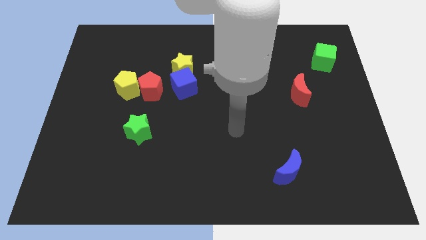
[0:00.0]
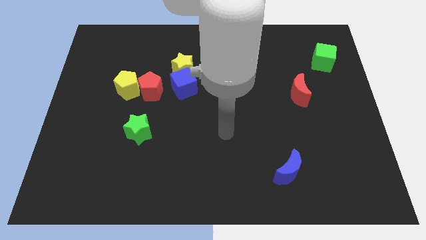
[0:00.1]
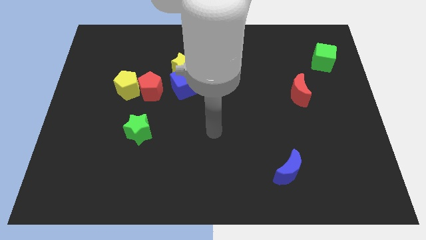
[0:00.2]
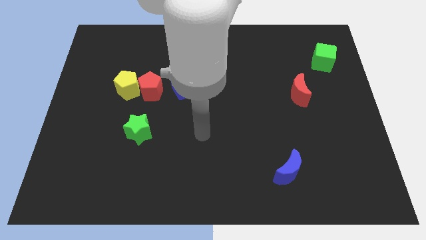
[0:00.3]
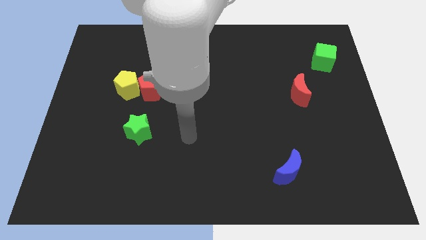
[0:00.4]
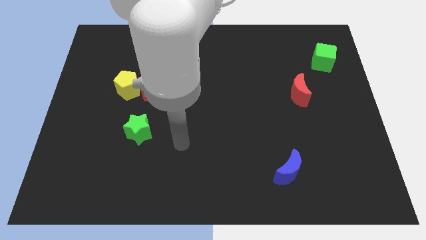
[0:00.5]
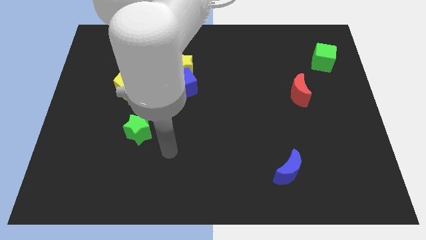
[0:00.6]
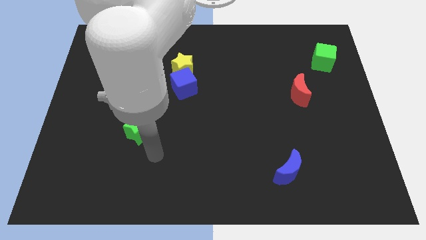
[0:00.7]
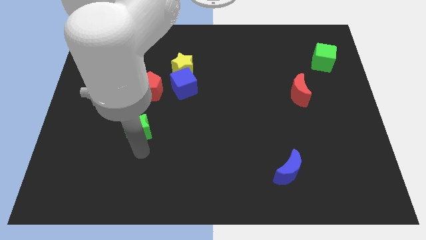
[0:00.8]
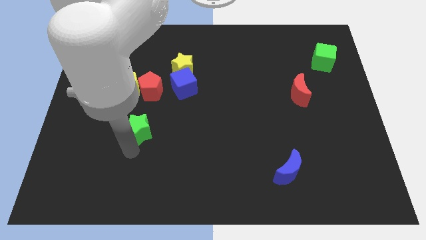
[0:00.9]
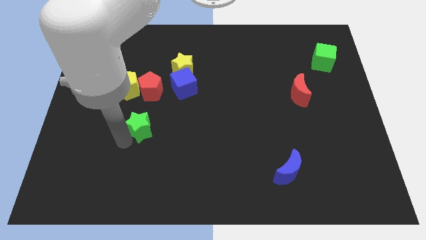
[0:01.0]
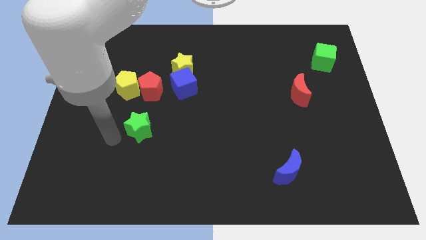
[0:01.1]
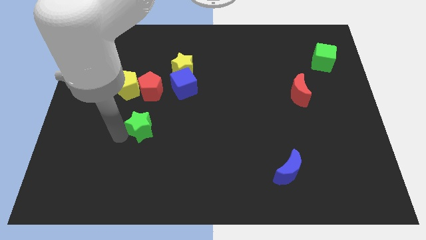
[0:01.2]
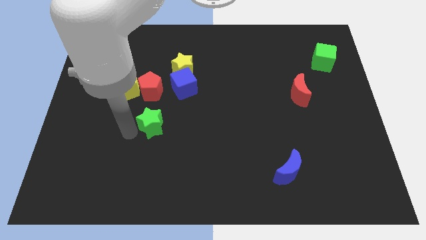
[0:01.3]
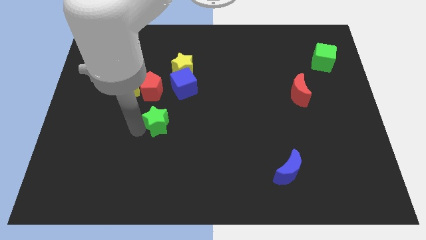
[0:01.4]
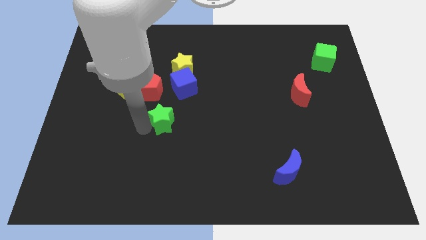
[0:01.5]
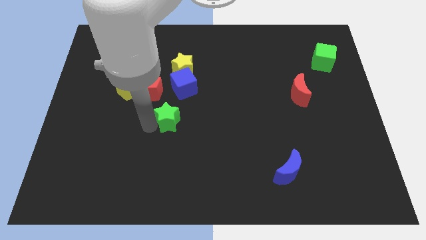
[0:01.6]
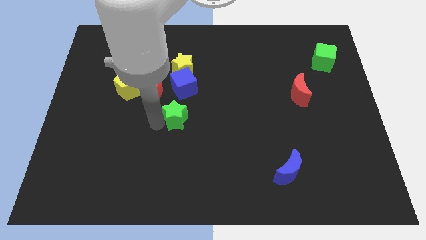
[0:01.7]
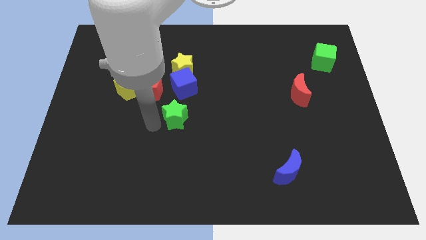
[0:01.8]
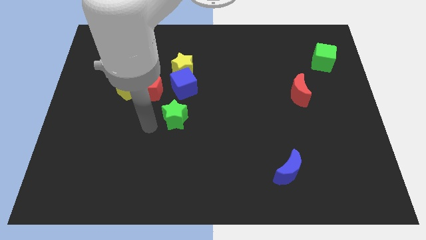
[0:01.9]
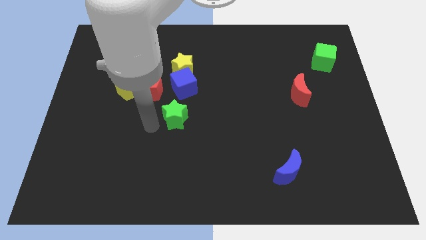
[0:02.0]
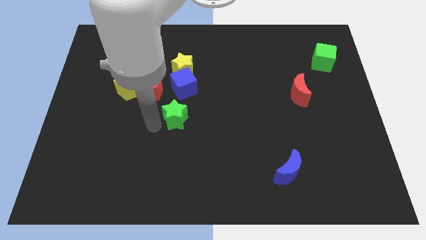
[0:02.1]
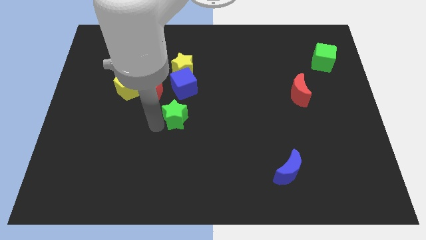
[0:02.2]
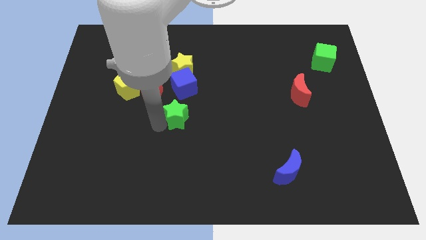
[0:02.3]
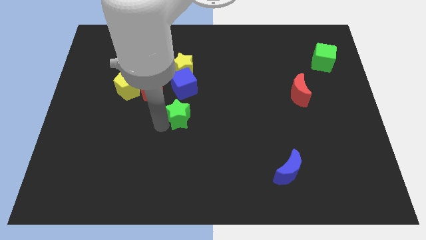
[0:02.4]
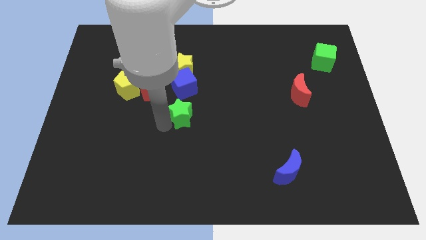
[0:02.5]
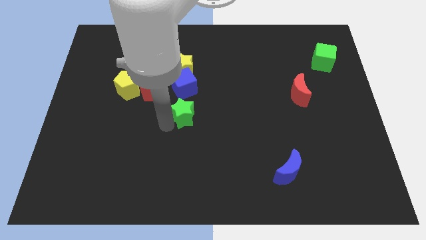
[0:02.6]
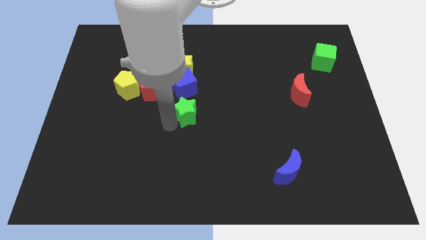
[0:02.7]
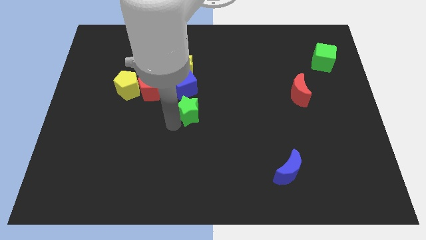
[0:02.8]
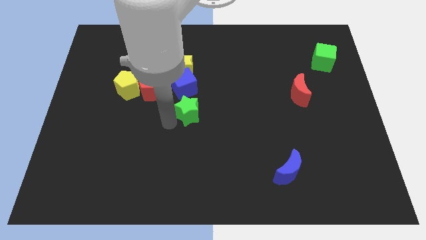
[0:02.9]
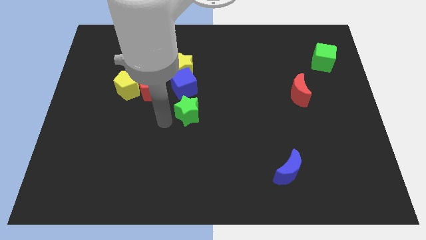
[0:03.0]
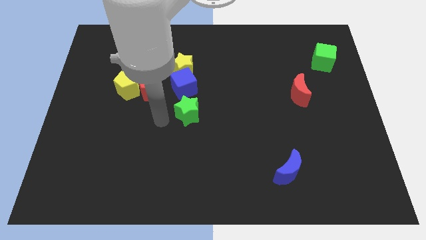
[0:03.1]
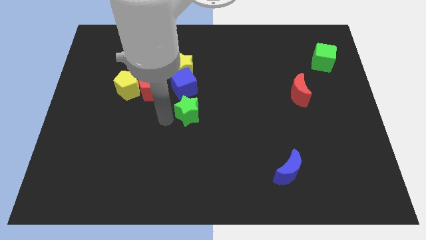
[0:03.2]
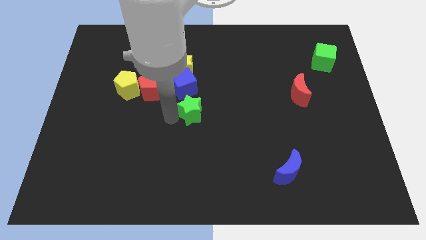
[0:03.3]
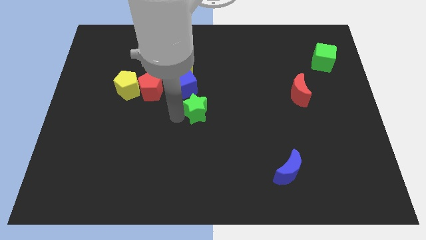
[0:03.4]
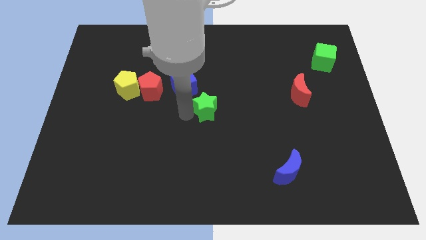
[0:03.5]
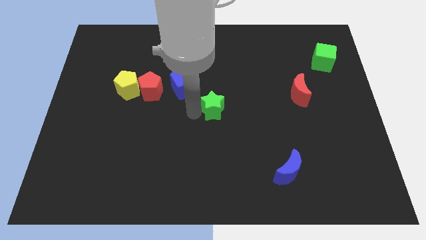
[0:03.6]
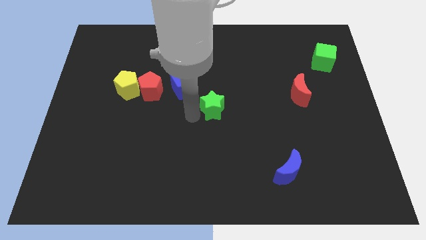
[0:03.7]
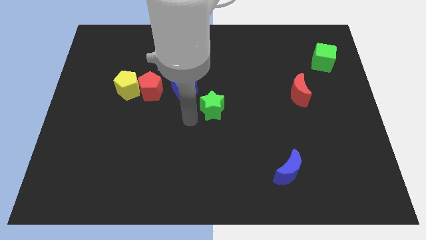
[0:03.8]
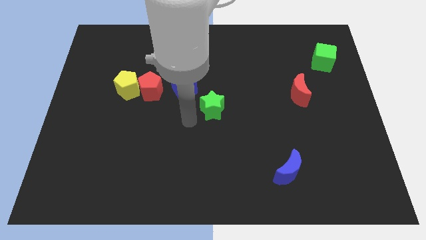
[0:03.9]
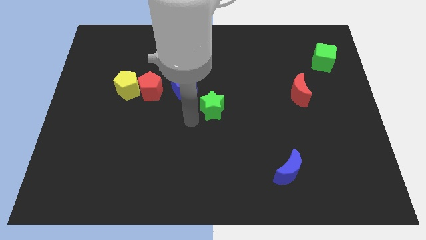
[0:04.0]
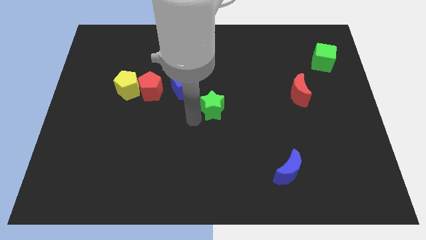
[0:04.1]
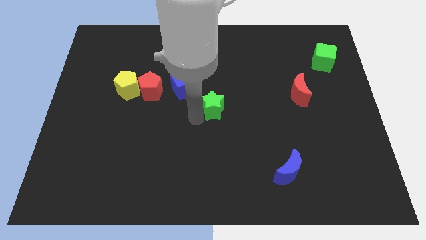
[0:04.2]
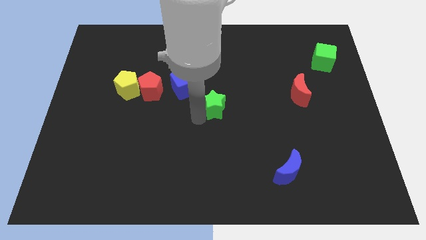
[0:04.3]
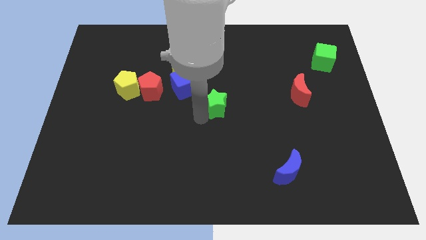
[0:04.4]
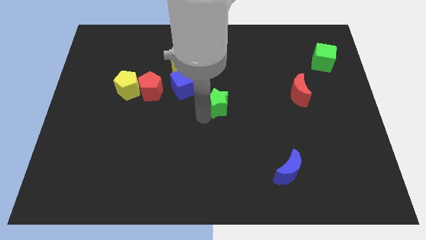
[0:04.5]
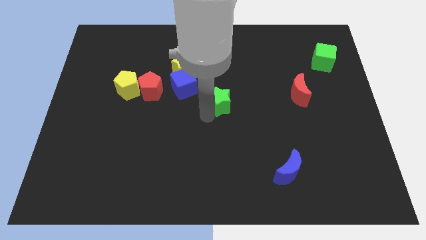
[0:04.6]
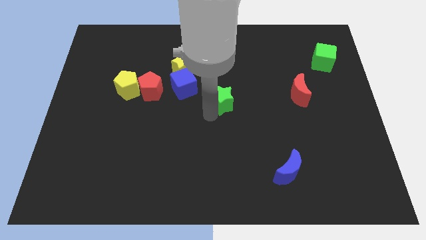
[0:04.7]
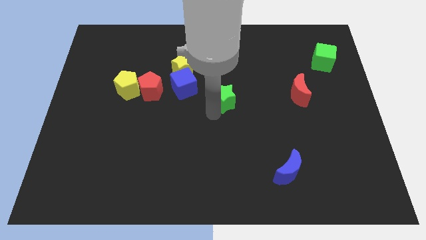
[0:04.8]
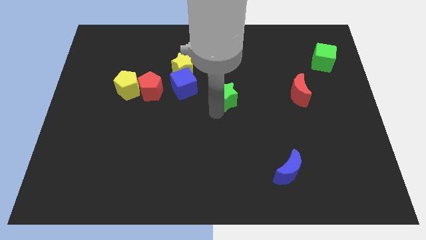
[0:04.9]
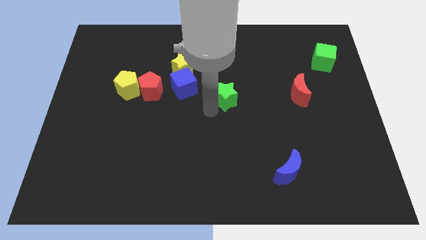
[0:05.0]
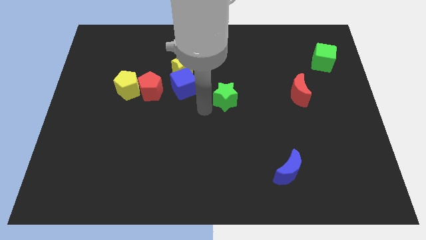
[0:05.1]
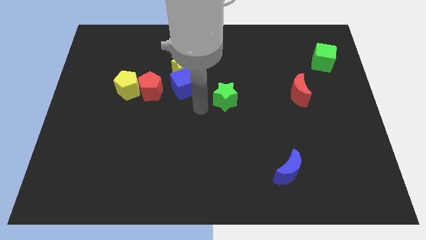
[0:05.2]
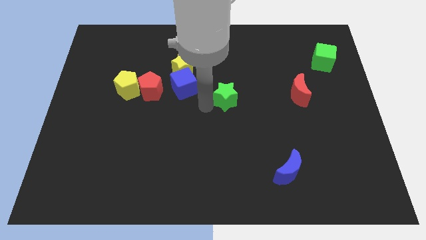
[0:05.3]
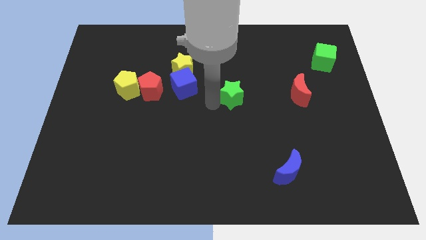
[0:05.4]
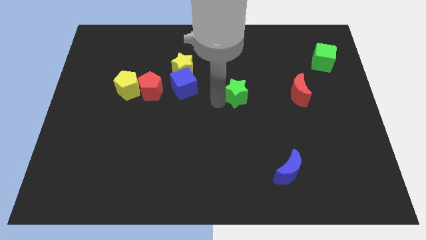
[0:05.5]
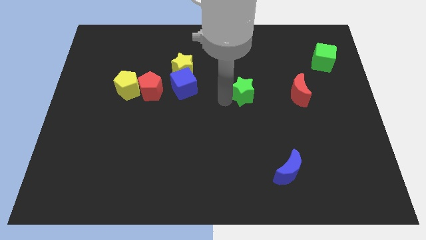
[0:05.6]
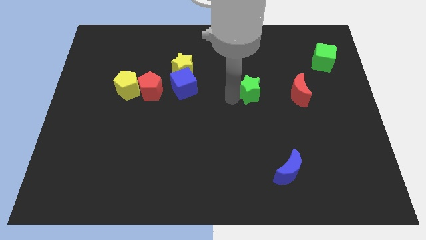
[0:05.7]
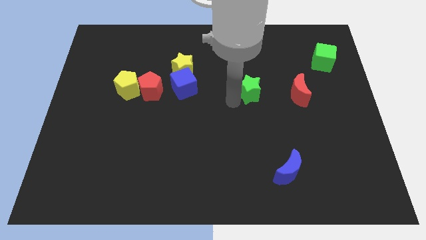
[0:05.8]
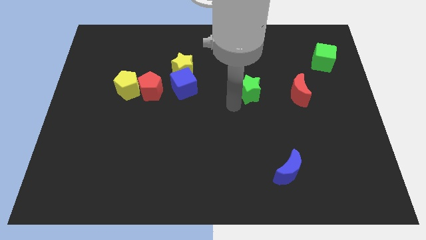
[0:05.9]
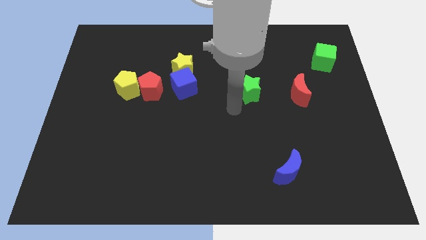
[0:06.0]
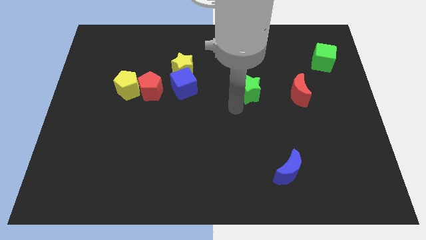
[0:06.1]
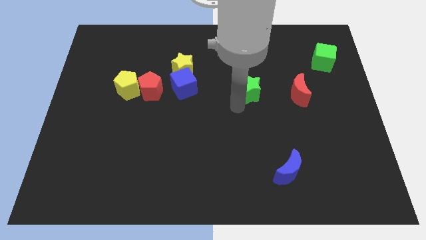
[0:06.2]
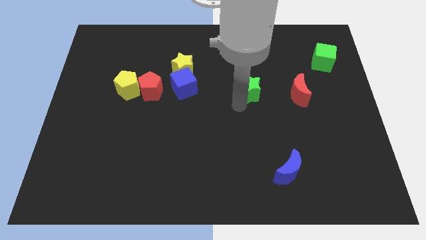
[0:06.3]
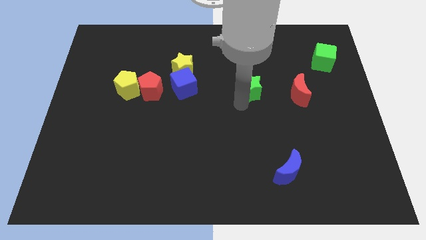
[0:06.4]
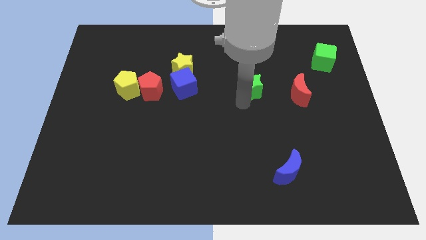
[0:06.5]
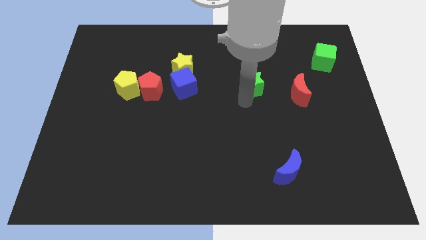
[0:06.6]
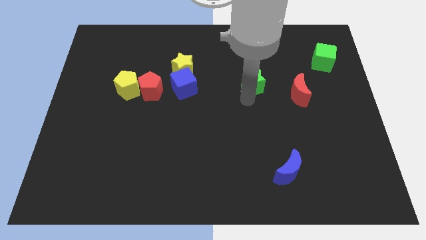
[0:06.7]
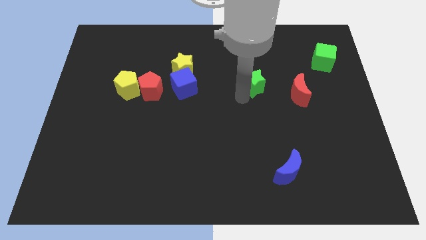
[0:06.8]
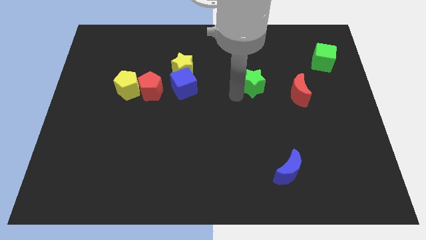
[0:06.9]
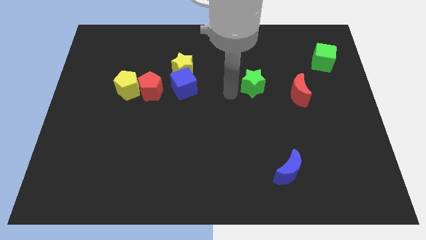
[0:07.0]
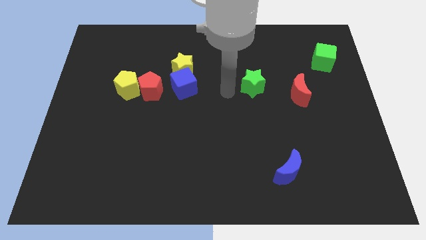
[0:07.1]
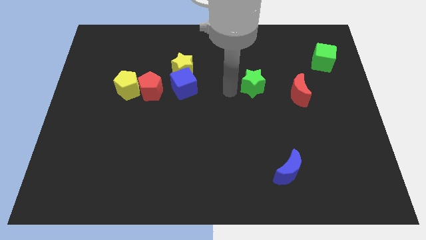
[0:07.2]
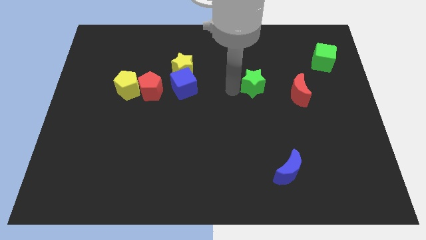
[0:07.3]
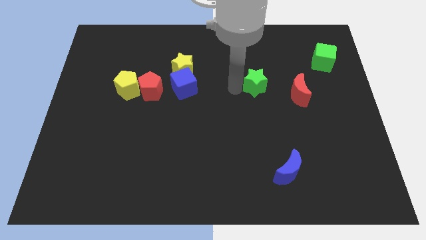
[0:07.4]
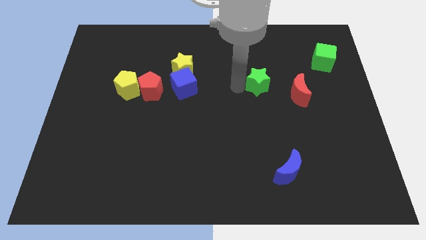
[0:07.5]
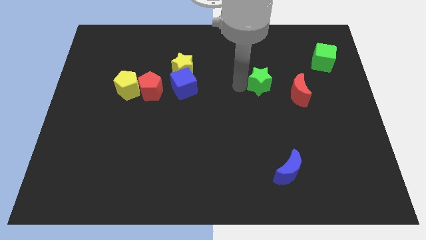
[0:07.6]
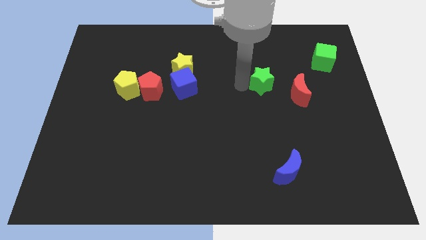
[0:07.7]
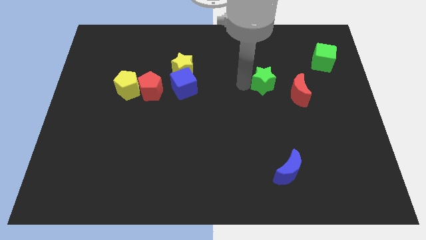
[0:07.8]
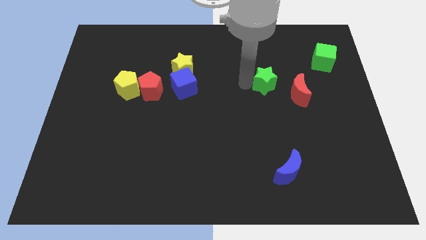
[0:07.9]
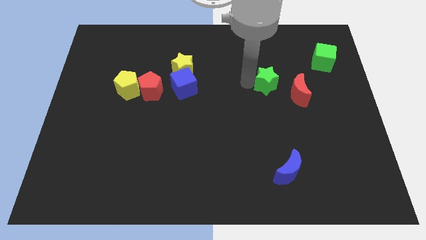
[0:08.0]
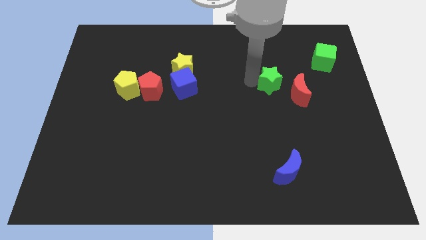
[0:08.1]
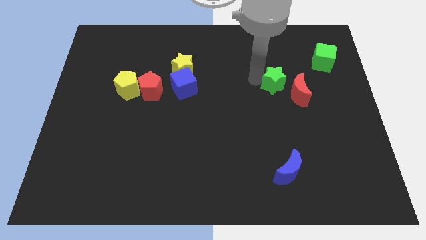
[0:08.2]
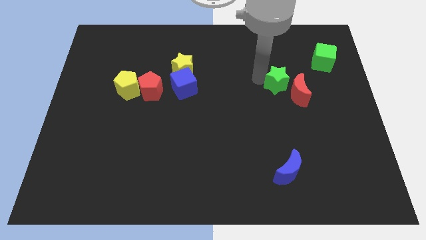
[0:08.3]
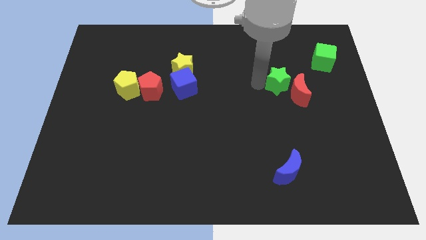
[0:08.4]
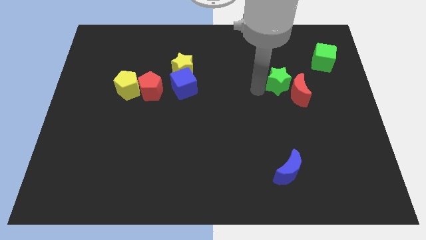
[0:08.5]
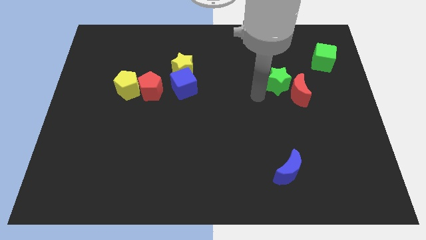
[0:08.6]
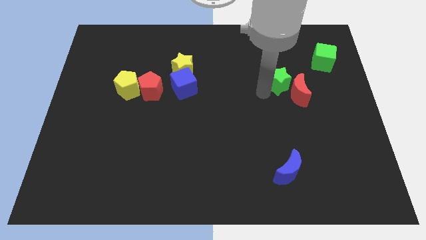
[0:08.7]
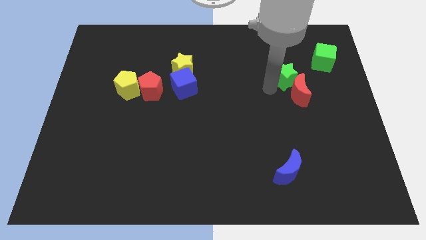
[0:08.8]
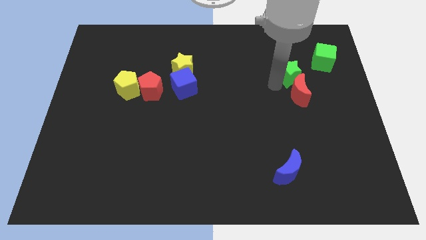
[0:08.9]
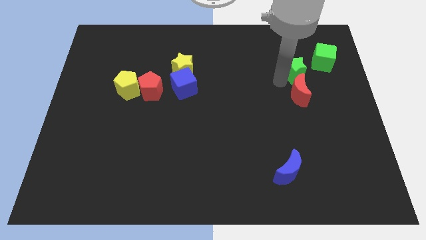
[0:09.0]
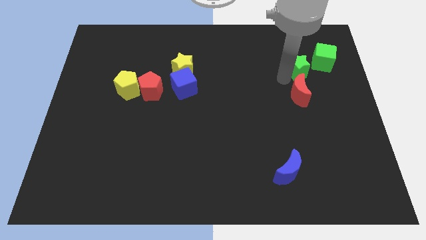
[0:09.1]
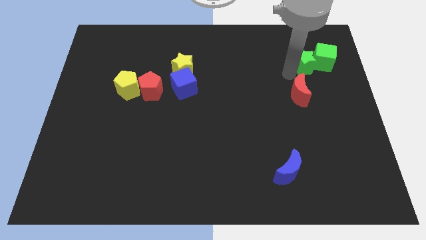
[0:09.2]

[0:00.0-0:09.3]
push the green star close to the green cube
